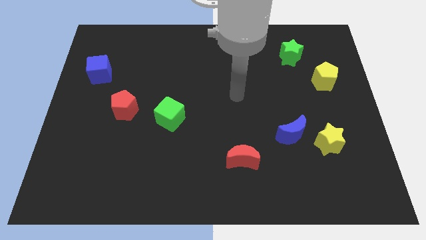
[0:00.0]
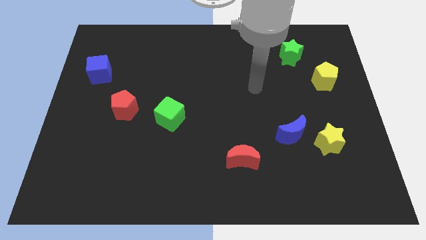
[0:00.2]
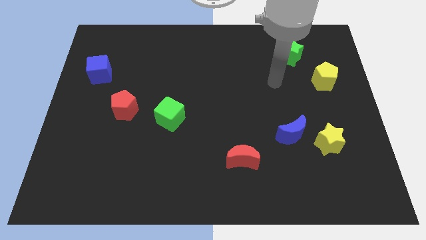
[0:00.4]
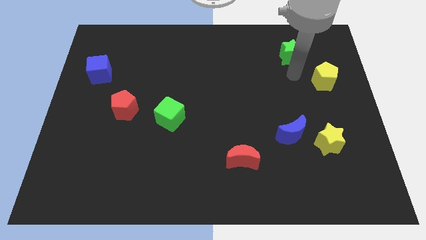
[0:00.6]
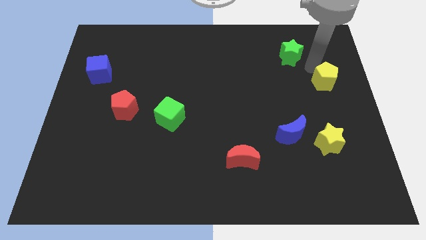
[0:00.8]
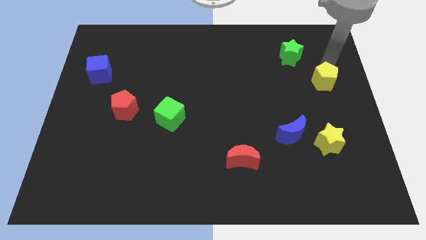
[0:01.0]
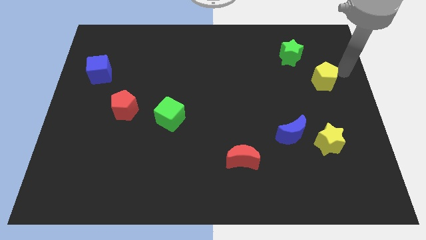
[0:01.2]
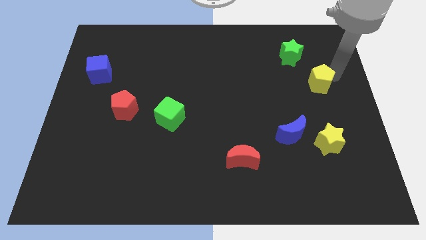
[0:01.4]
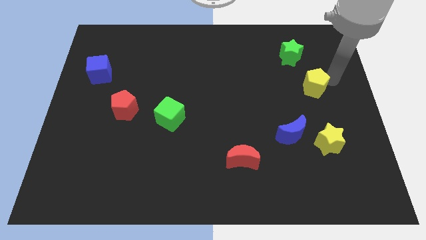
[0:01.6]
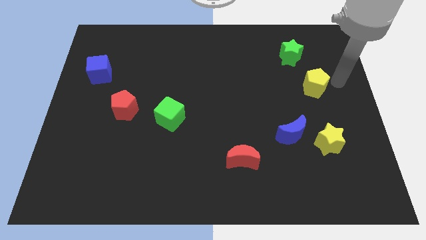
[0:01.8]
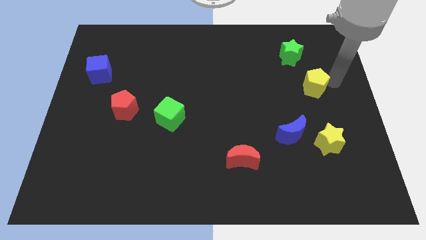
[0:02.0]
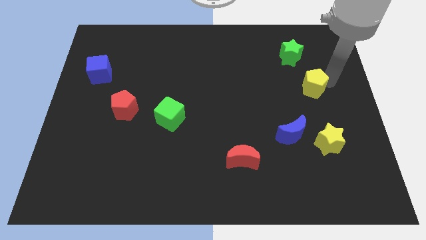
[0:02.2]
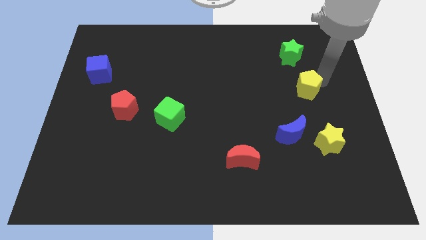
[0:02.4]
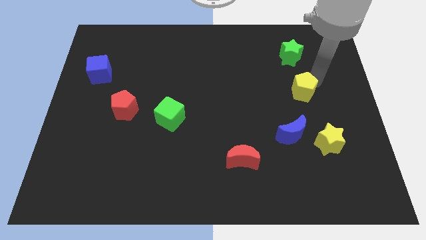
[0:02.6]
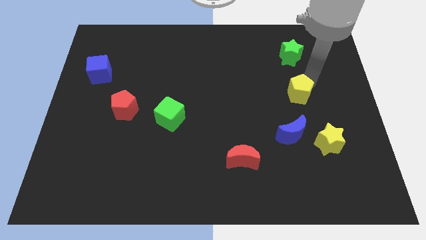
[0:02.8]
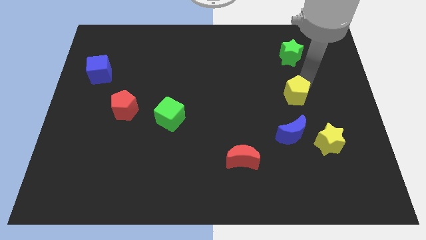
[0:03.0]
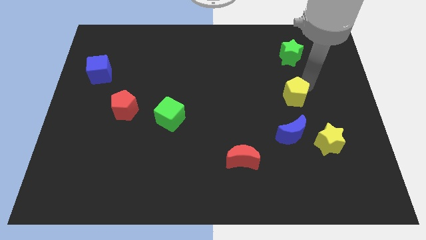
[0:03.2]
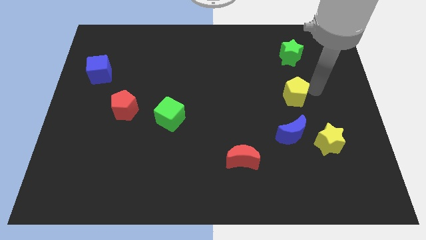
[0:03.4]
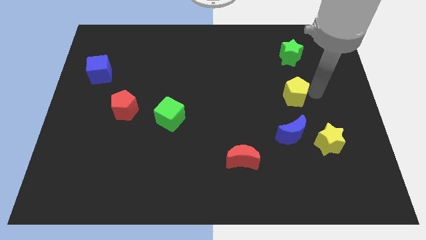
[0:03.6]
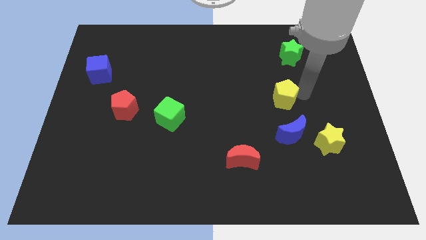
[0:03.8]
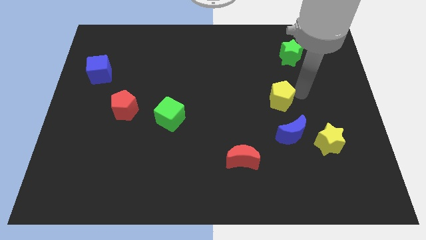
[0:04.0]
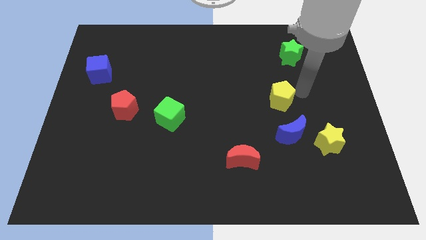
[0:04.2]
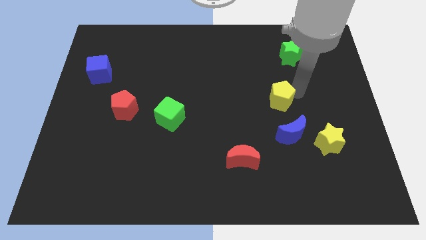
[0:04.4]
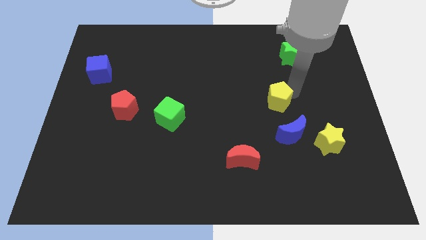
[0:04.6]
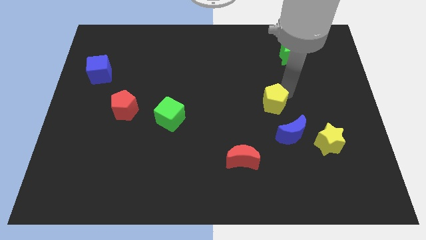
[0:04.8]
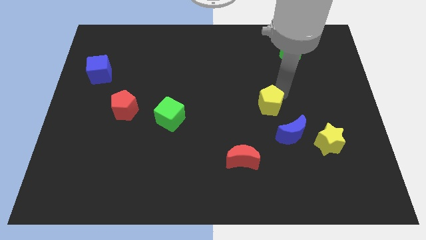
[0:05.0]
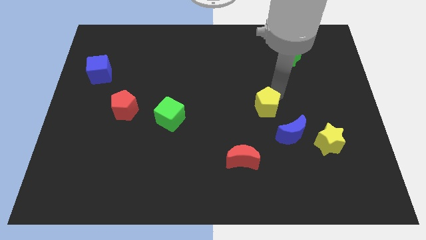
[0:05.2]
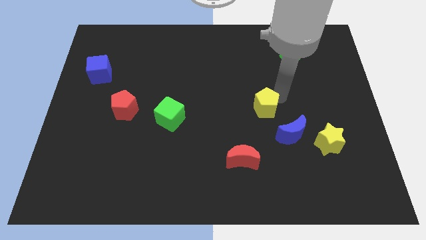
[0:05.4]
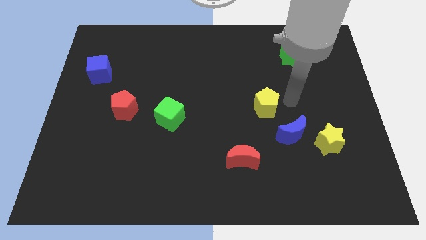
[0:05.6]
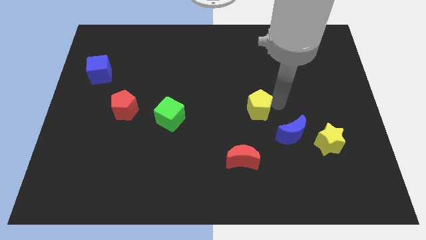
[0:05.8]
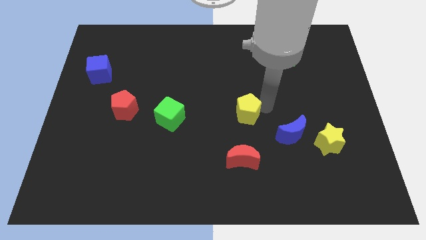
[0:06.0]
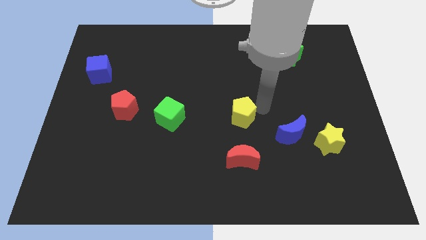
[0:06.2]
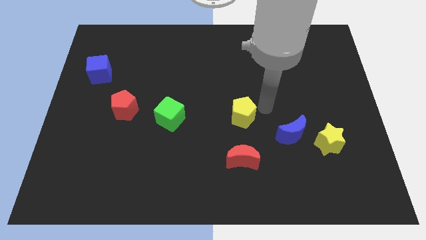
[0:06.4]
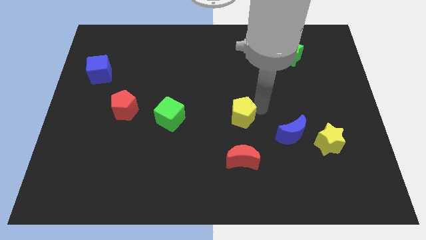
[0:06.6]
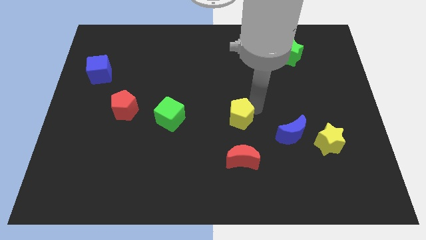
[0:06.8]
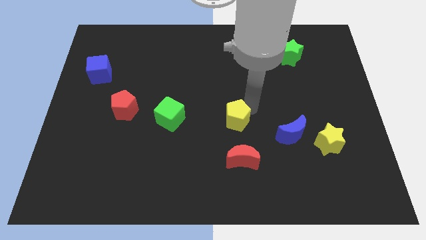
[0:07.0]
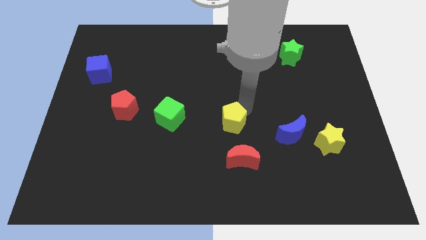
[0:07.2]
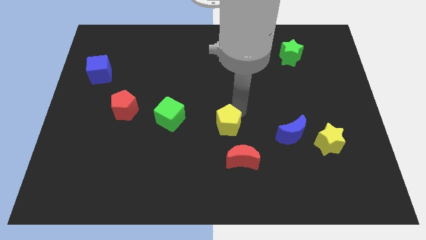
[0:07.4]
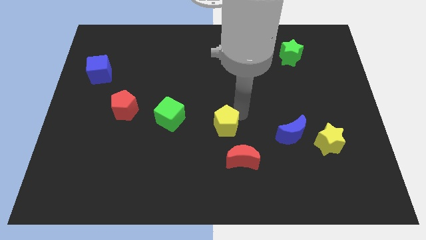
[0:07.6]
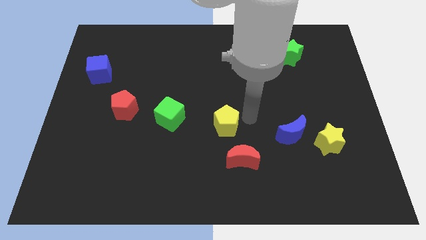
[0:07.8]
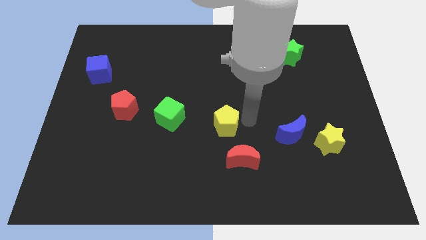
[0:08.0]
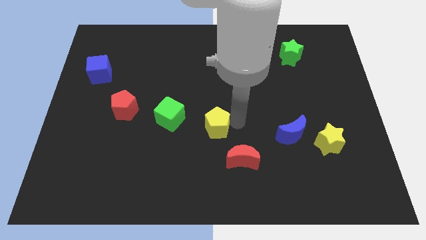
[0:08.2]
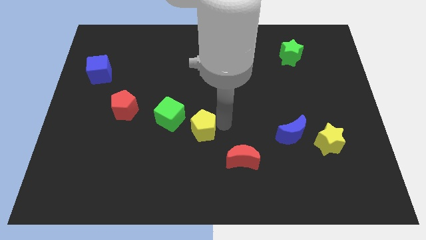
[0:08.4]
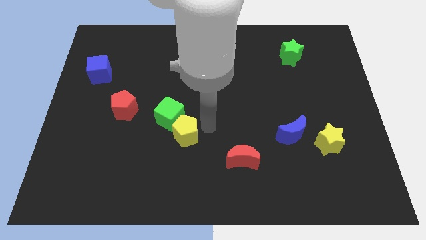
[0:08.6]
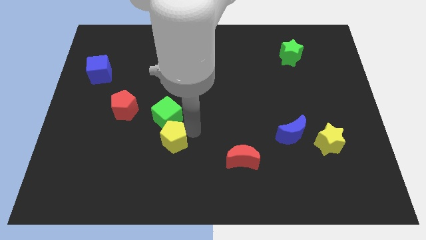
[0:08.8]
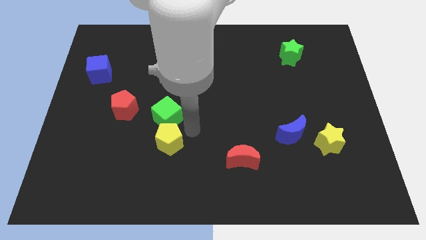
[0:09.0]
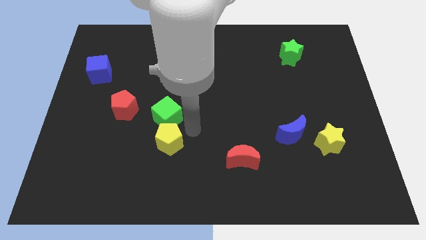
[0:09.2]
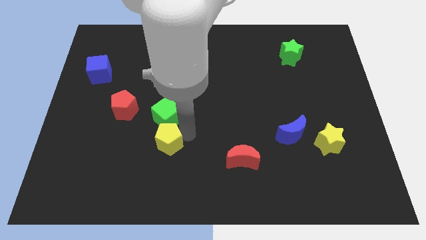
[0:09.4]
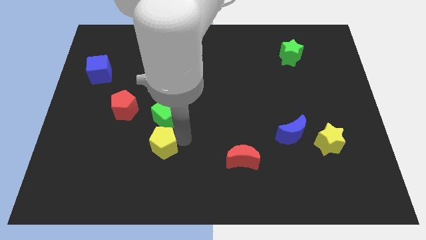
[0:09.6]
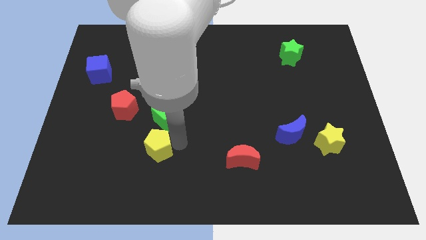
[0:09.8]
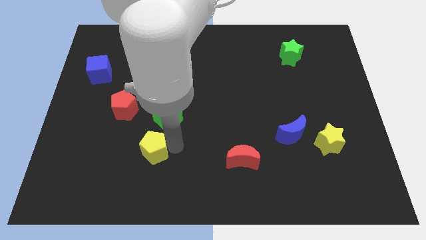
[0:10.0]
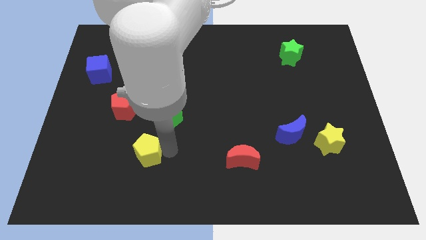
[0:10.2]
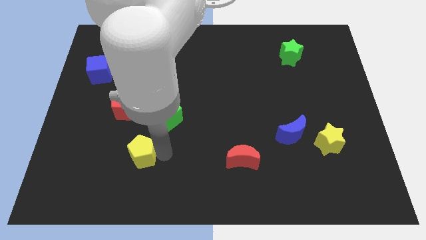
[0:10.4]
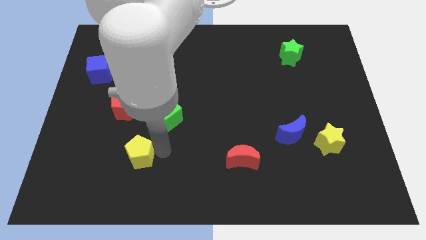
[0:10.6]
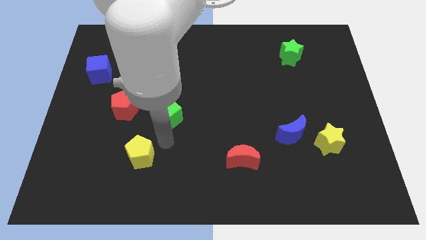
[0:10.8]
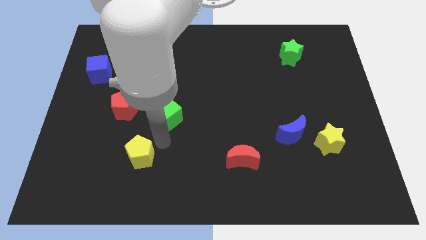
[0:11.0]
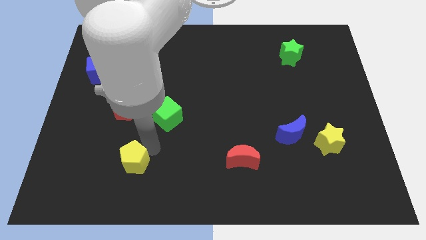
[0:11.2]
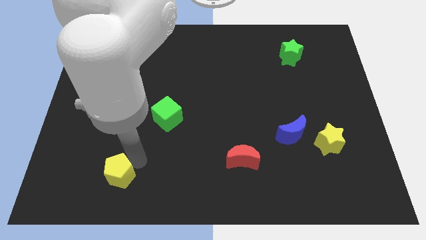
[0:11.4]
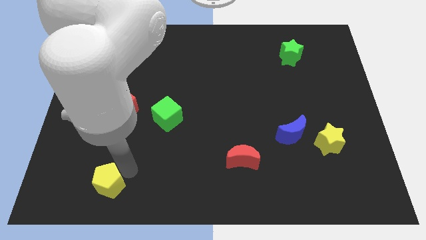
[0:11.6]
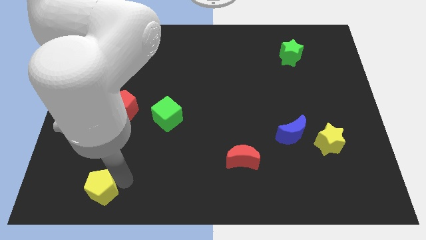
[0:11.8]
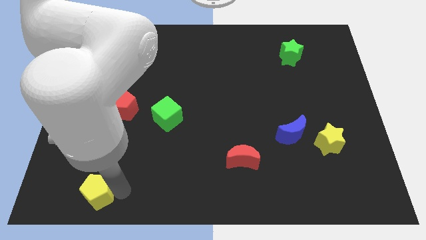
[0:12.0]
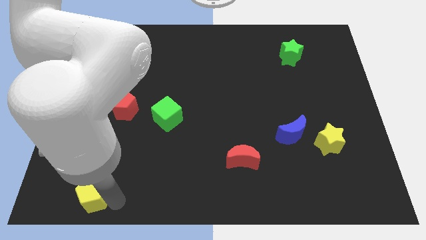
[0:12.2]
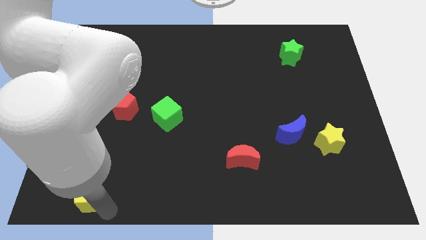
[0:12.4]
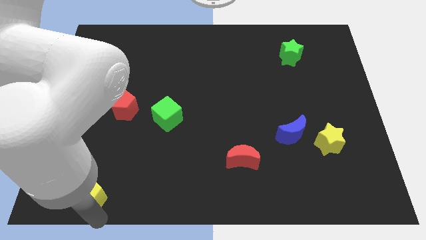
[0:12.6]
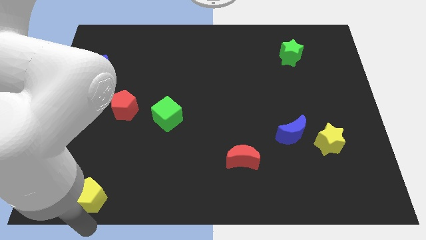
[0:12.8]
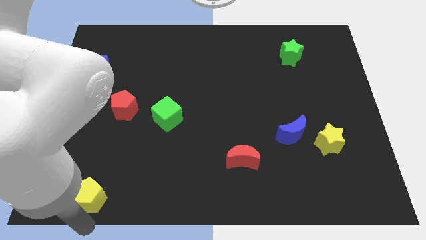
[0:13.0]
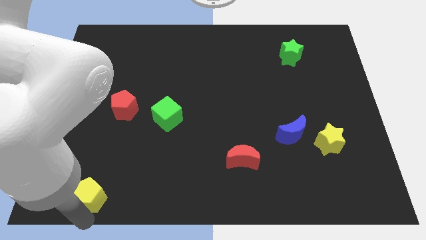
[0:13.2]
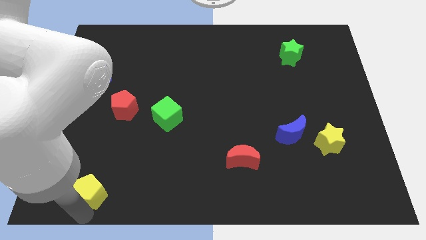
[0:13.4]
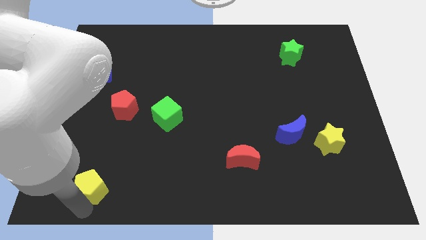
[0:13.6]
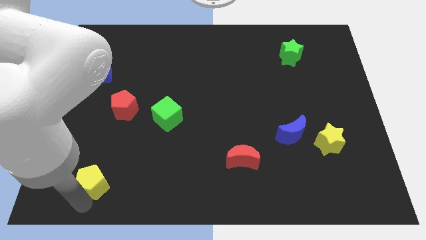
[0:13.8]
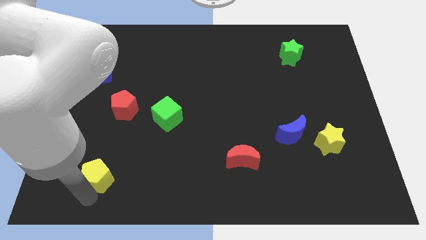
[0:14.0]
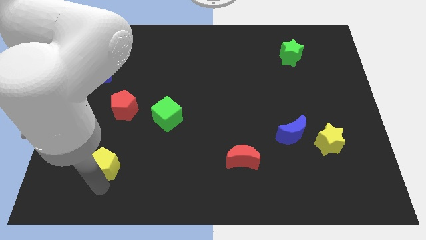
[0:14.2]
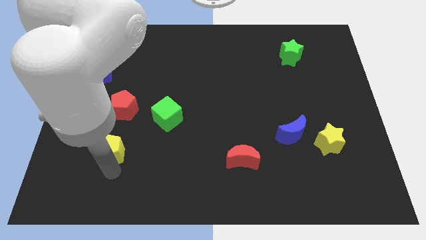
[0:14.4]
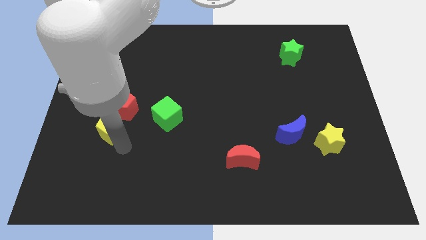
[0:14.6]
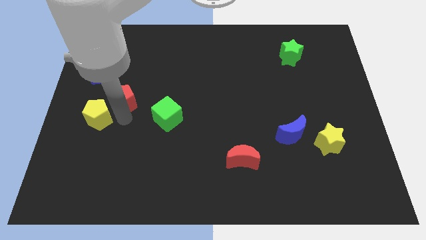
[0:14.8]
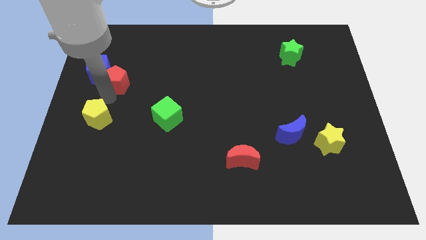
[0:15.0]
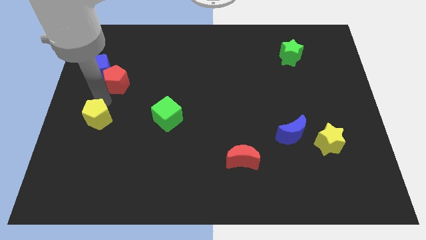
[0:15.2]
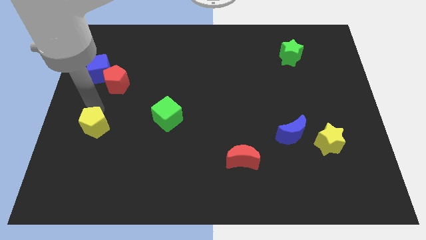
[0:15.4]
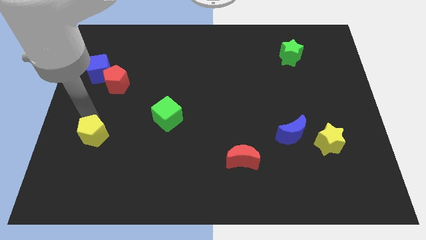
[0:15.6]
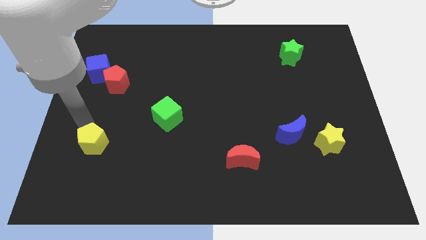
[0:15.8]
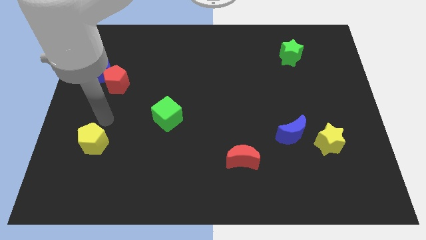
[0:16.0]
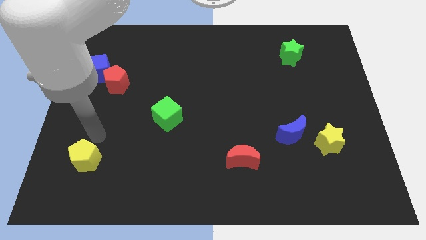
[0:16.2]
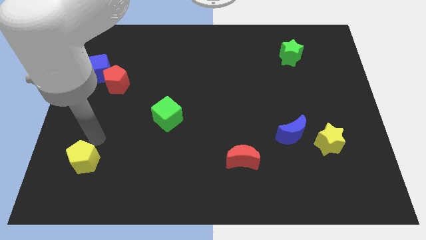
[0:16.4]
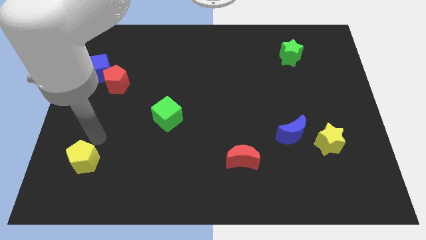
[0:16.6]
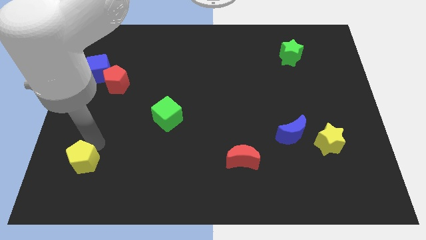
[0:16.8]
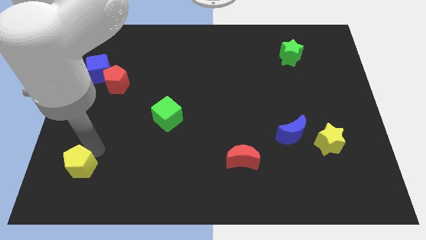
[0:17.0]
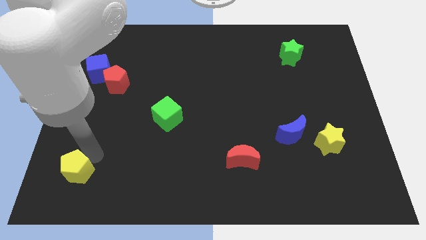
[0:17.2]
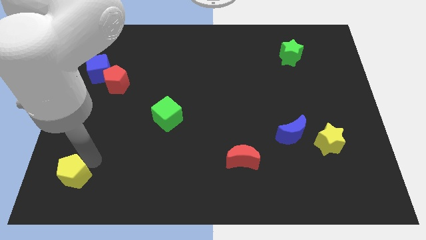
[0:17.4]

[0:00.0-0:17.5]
slide the yellow pentagon to the bottom left
